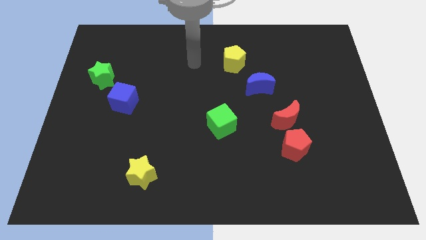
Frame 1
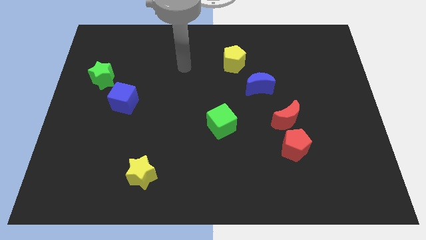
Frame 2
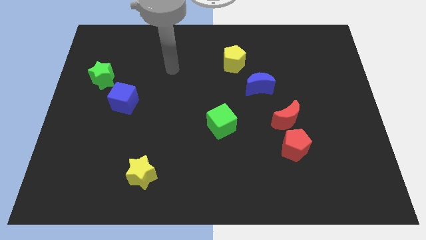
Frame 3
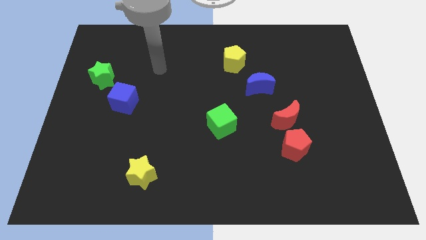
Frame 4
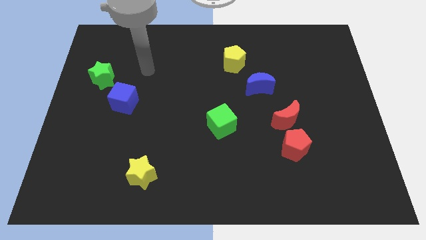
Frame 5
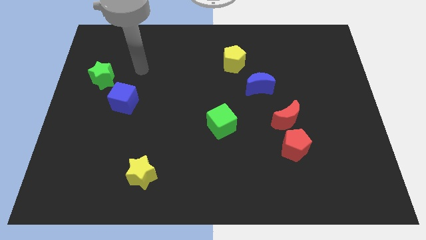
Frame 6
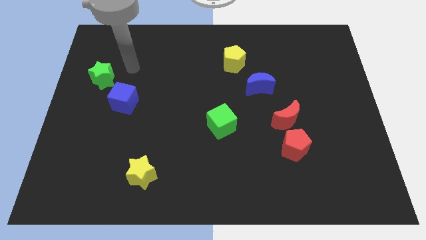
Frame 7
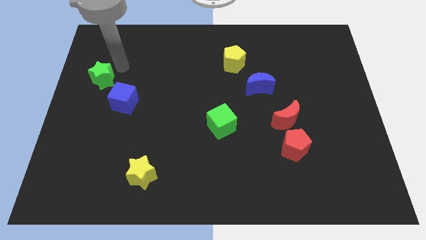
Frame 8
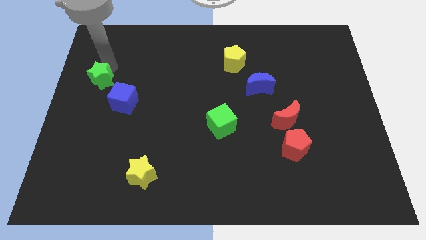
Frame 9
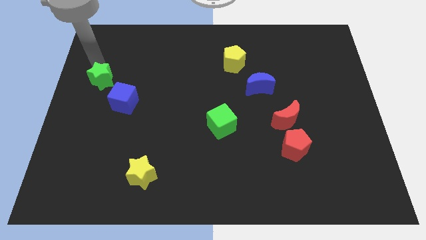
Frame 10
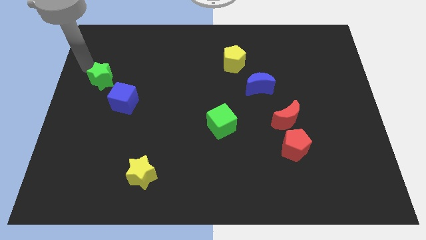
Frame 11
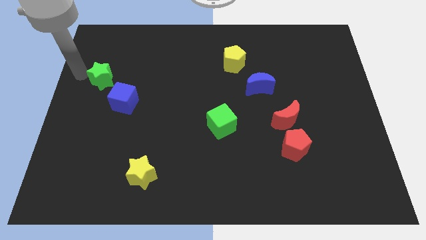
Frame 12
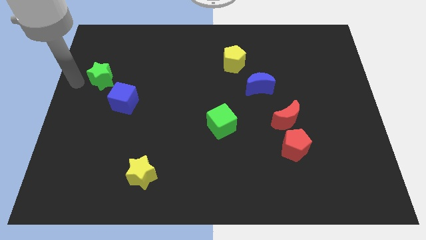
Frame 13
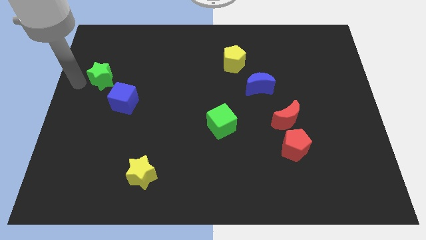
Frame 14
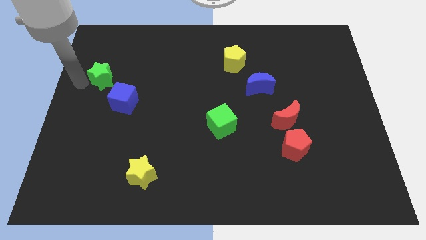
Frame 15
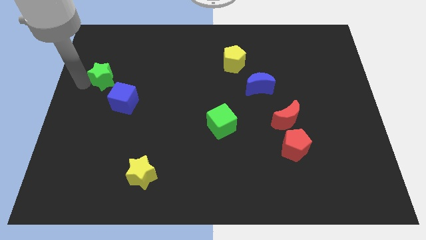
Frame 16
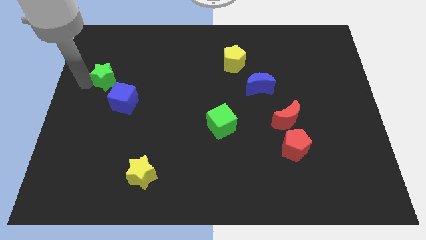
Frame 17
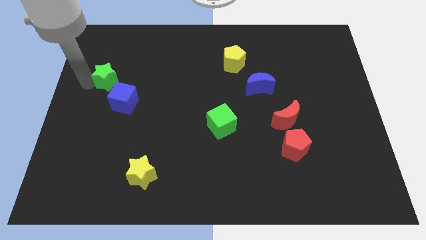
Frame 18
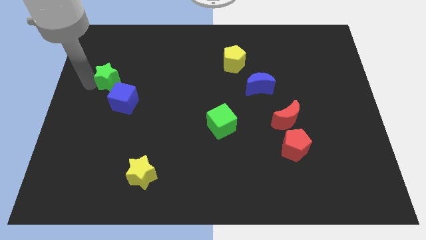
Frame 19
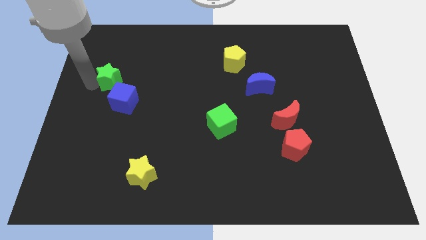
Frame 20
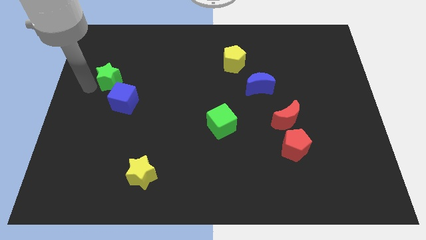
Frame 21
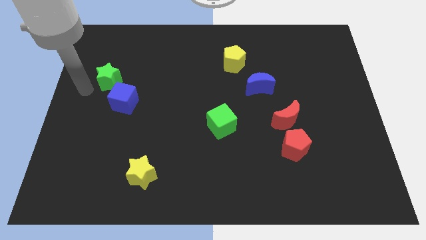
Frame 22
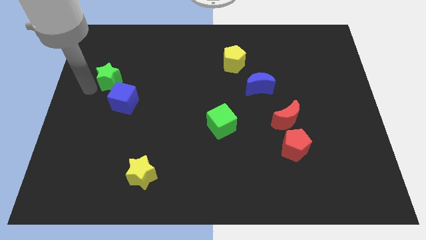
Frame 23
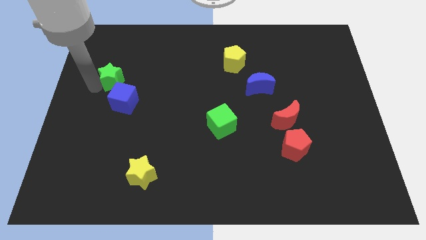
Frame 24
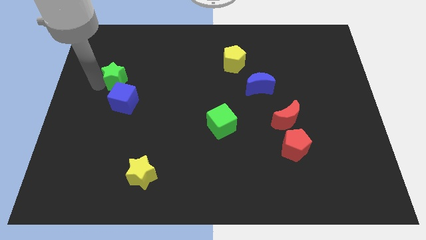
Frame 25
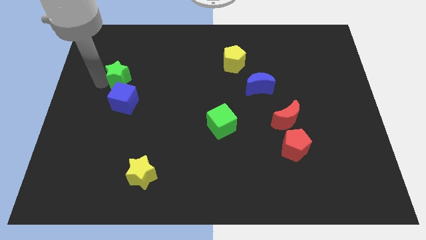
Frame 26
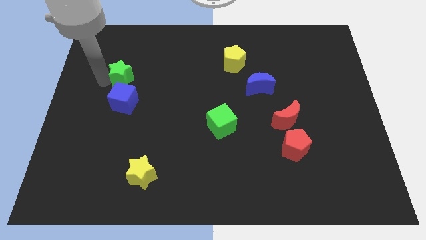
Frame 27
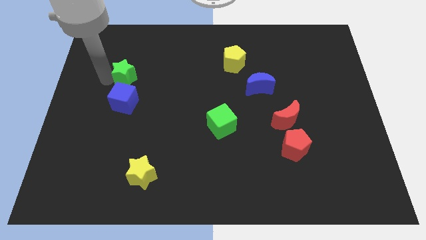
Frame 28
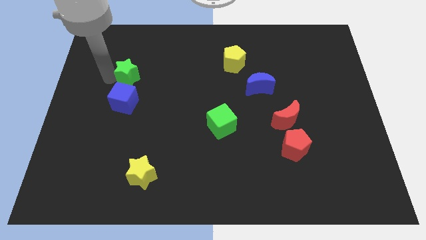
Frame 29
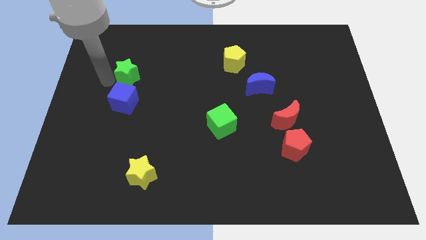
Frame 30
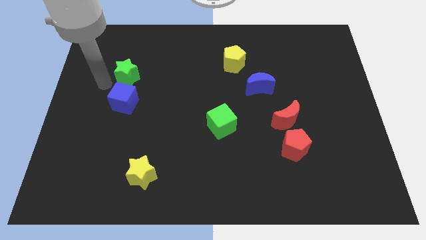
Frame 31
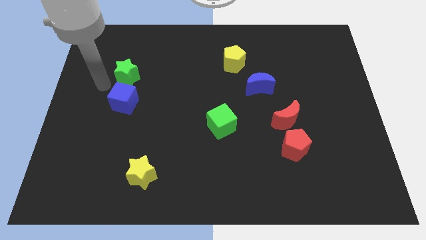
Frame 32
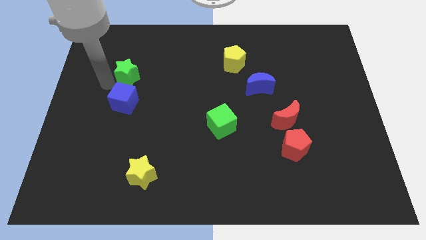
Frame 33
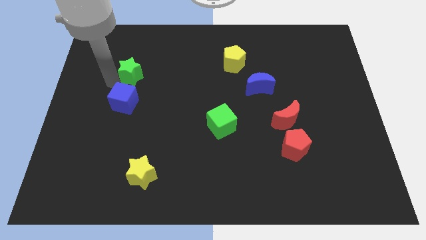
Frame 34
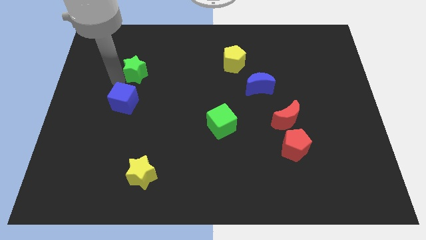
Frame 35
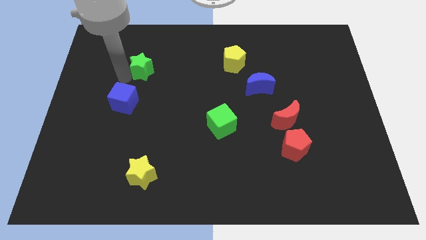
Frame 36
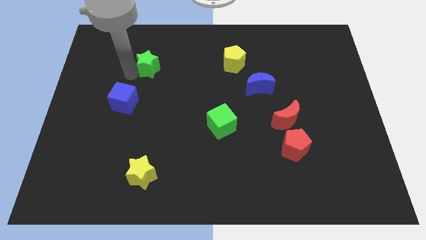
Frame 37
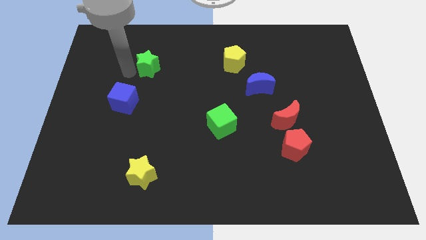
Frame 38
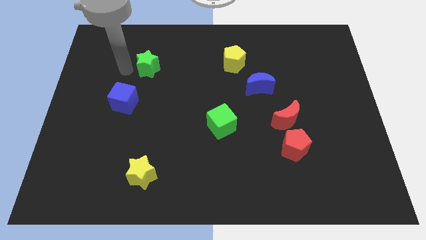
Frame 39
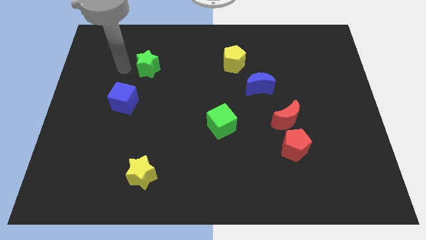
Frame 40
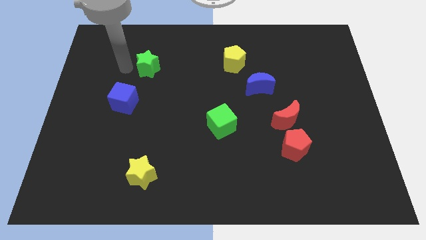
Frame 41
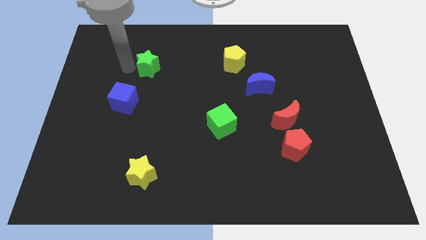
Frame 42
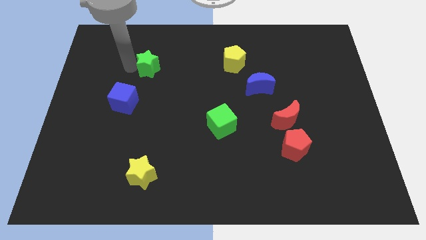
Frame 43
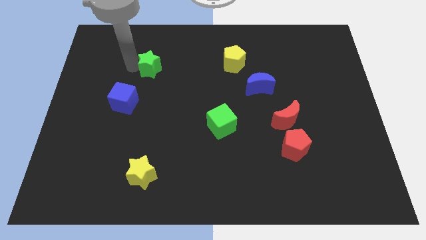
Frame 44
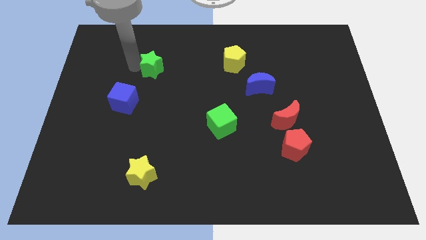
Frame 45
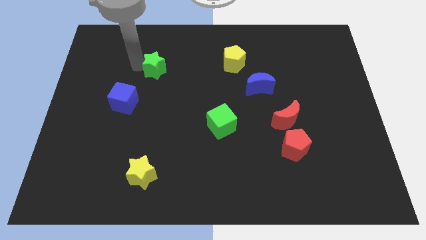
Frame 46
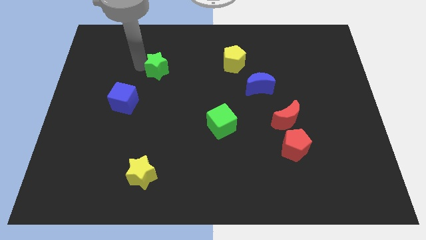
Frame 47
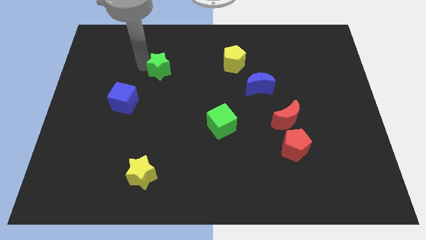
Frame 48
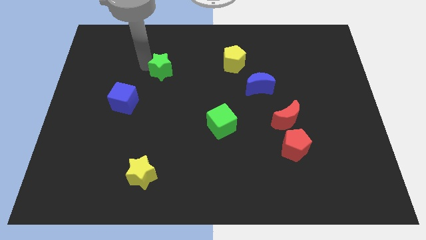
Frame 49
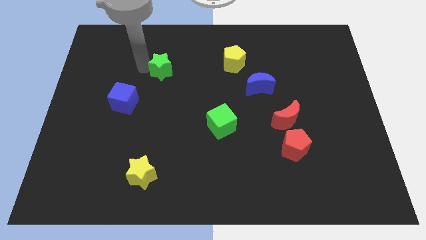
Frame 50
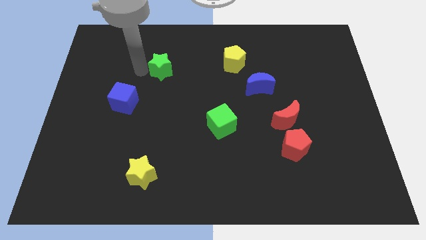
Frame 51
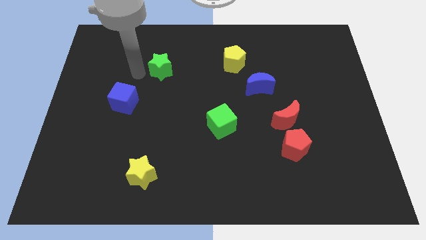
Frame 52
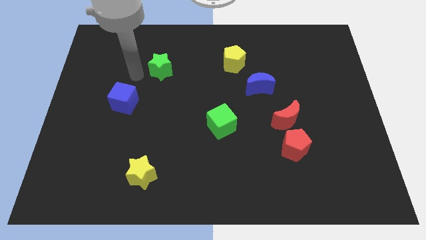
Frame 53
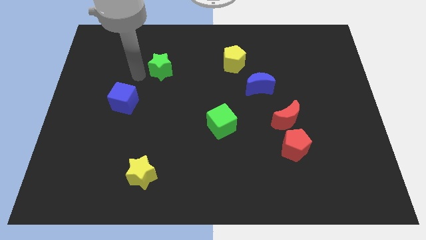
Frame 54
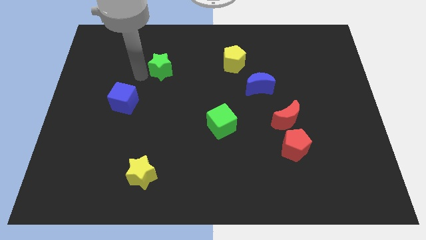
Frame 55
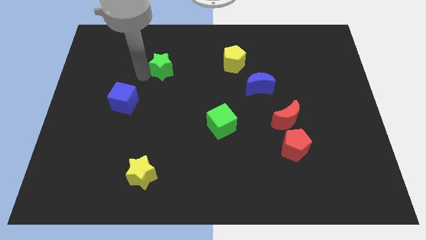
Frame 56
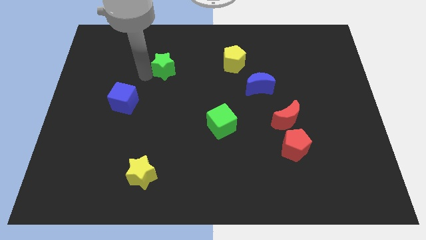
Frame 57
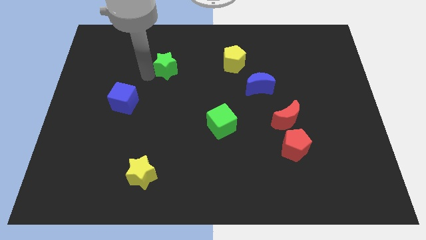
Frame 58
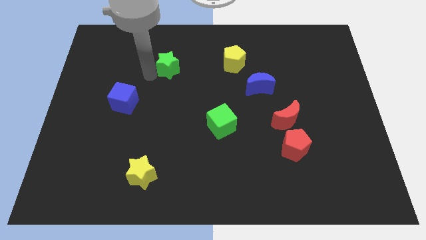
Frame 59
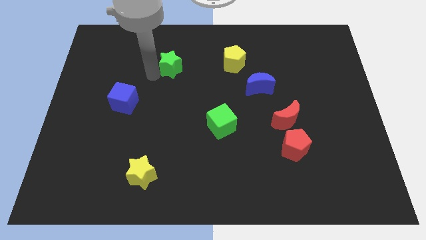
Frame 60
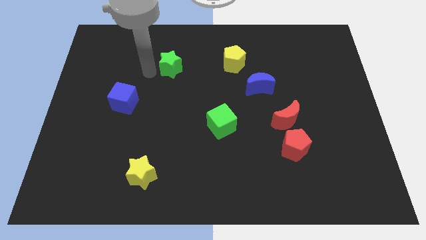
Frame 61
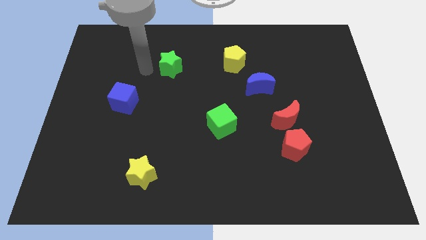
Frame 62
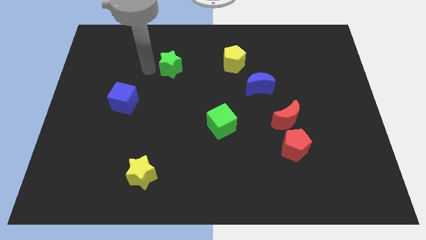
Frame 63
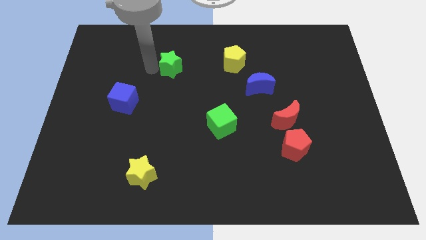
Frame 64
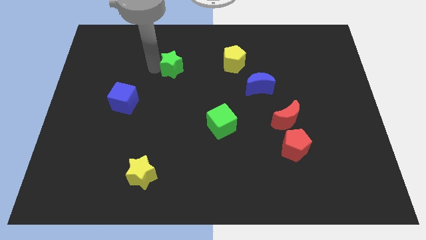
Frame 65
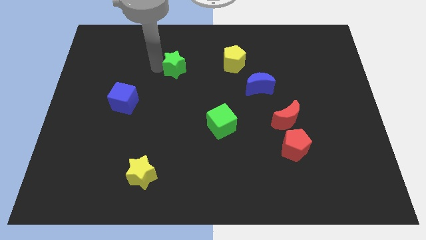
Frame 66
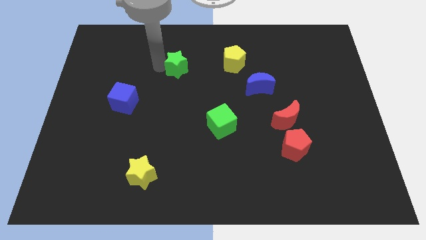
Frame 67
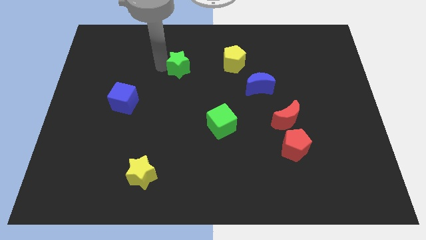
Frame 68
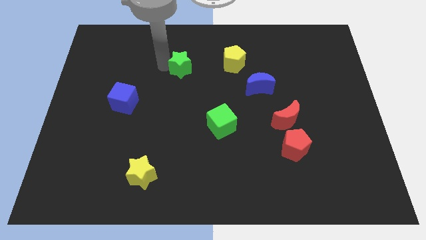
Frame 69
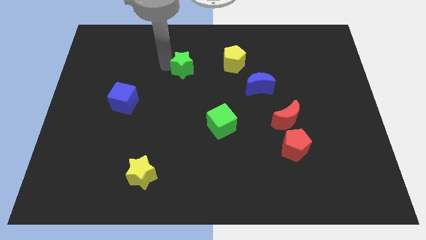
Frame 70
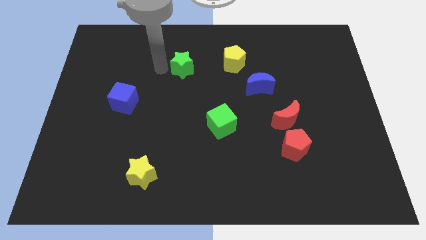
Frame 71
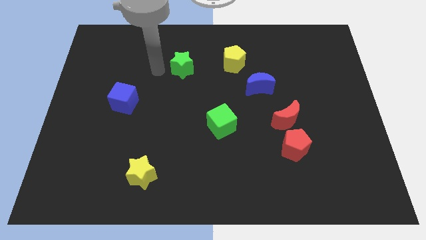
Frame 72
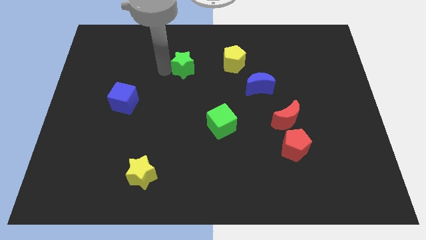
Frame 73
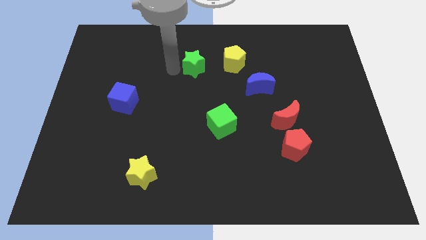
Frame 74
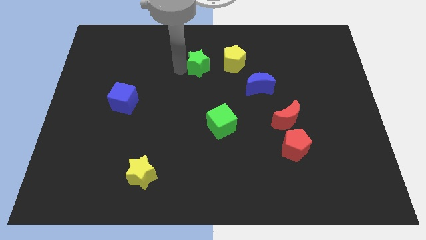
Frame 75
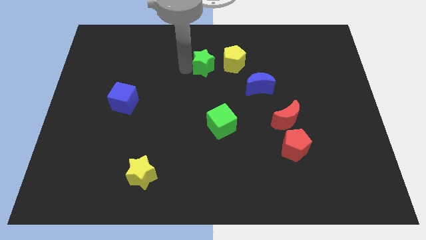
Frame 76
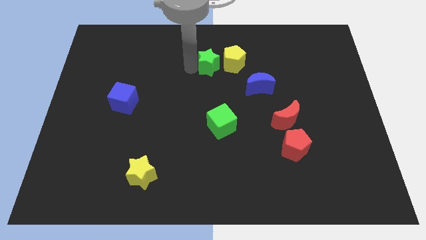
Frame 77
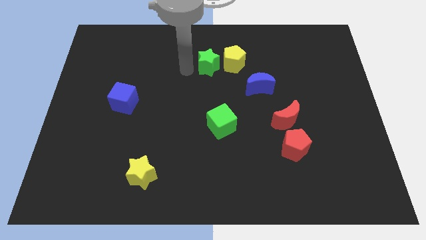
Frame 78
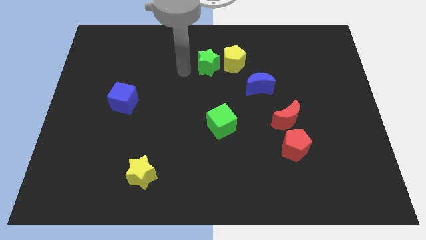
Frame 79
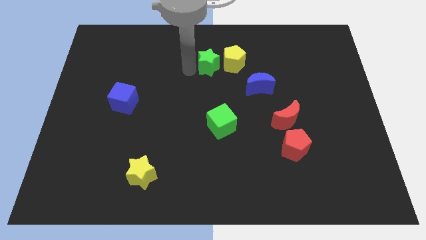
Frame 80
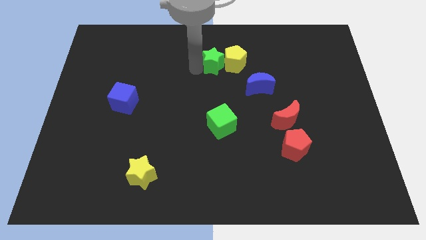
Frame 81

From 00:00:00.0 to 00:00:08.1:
slide the green star towards the yellow pentagon
